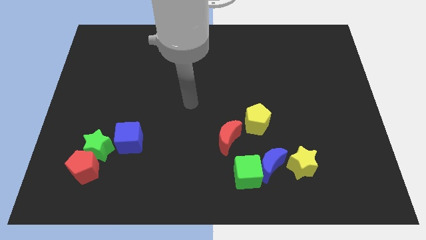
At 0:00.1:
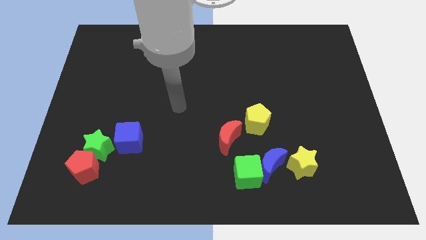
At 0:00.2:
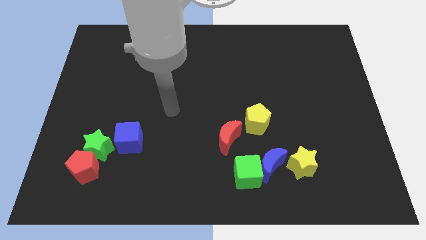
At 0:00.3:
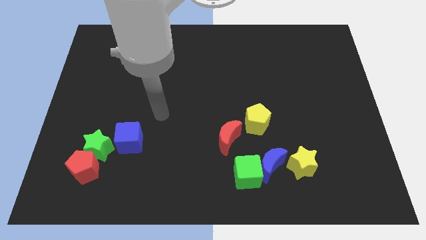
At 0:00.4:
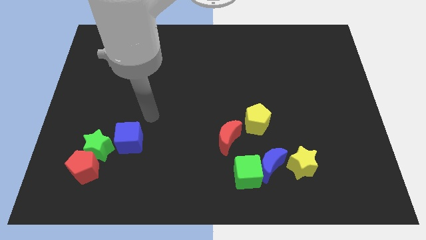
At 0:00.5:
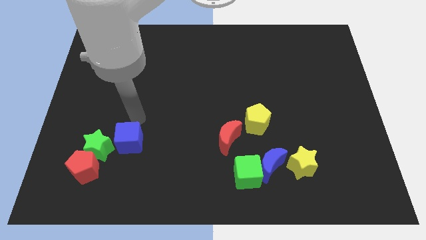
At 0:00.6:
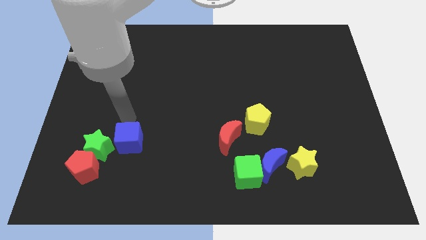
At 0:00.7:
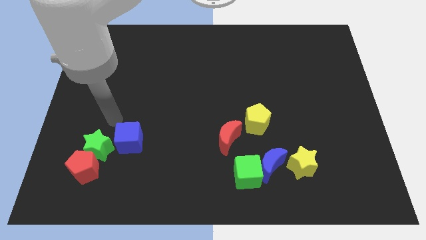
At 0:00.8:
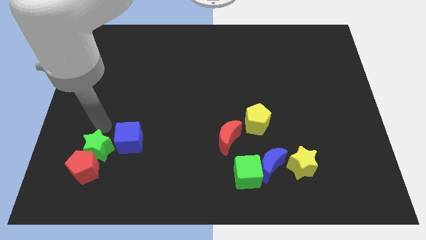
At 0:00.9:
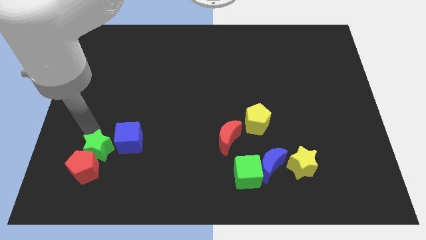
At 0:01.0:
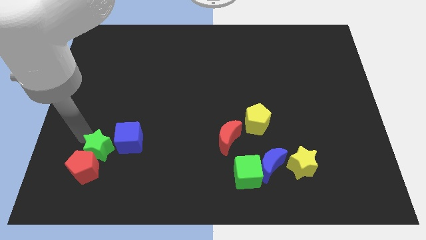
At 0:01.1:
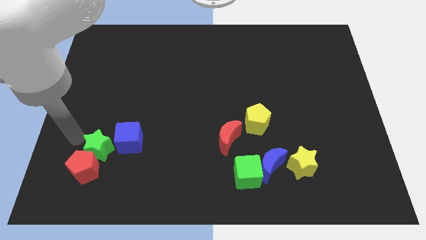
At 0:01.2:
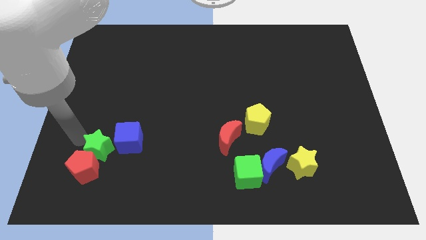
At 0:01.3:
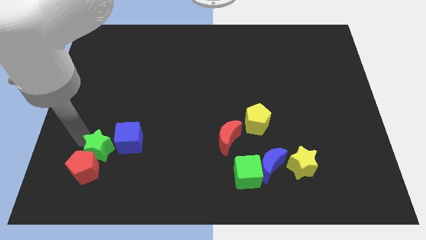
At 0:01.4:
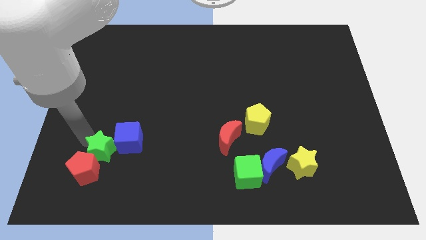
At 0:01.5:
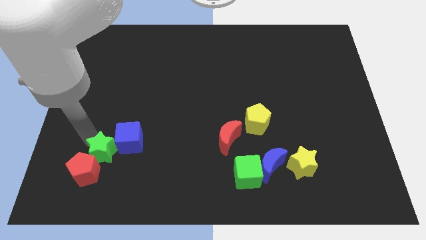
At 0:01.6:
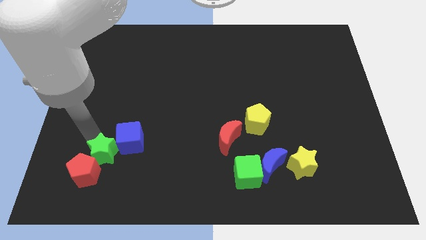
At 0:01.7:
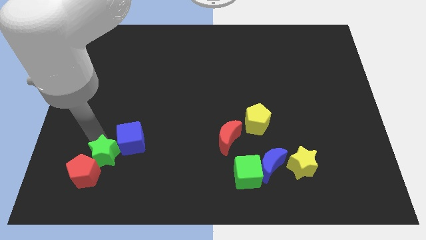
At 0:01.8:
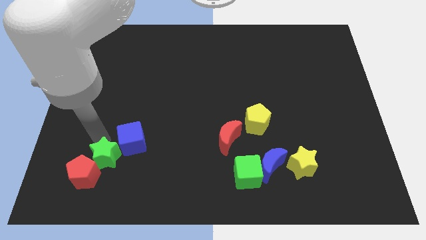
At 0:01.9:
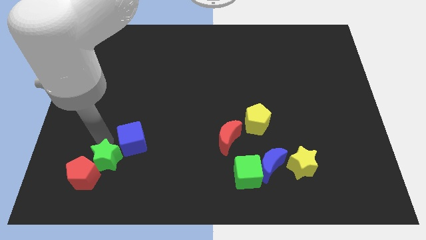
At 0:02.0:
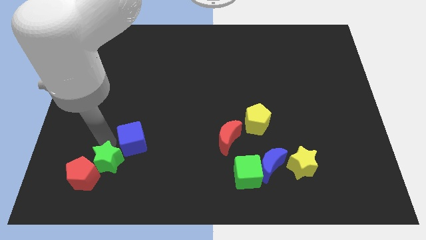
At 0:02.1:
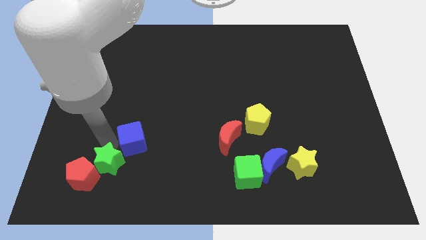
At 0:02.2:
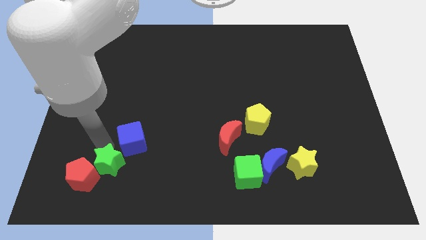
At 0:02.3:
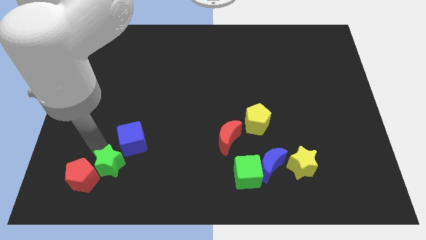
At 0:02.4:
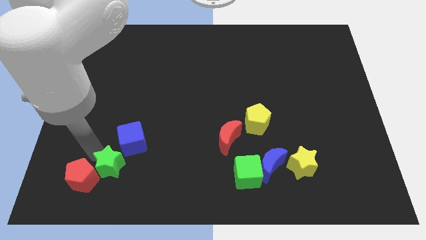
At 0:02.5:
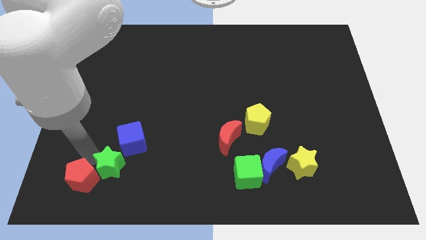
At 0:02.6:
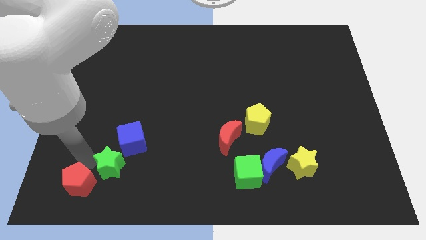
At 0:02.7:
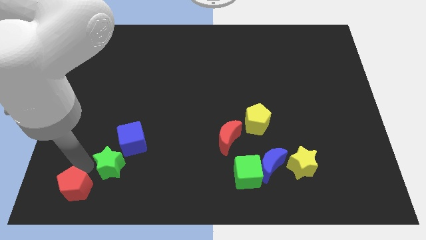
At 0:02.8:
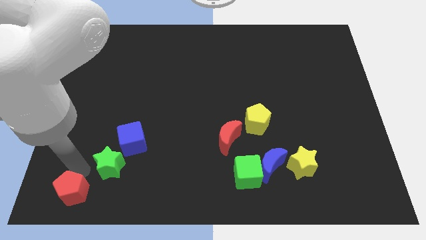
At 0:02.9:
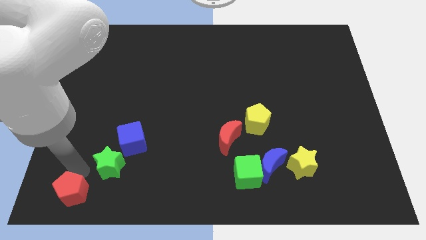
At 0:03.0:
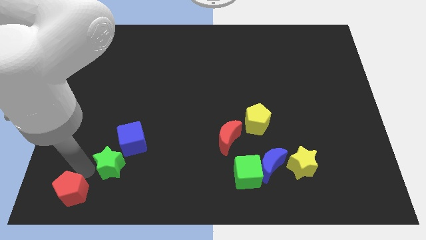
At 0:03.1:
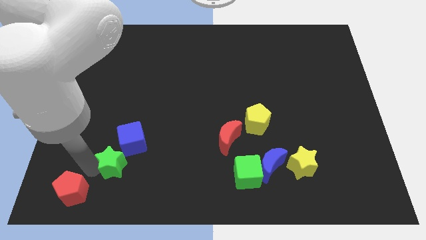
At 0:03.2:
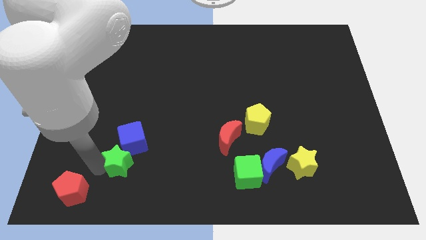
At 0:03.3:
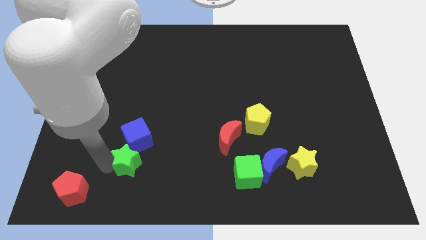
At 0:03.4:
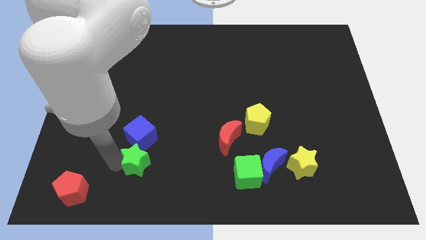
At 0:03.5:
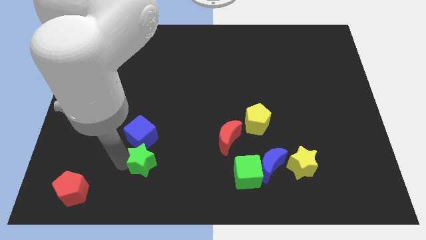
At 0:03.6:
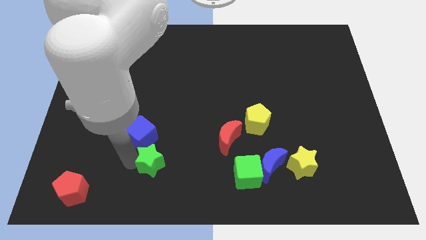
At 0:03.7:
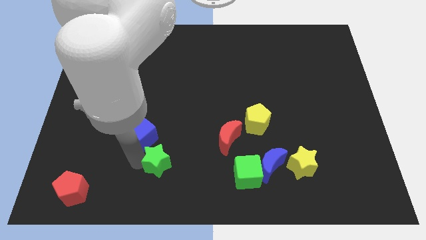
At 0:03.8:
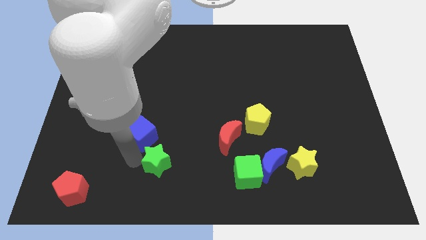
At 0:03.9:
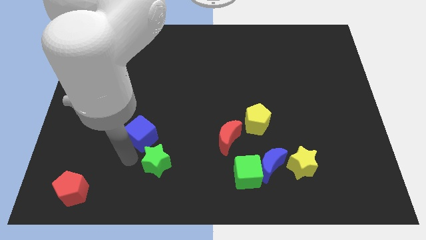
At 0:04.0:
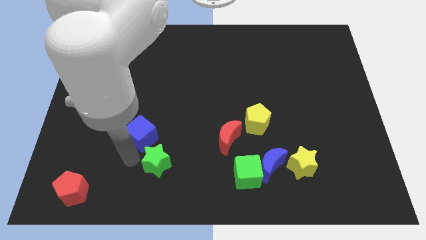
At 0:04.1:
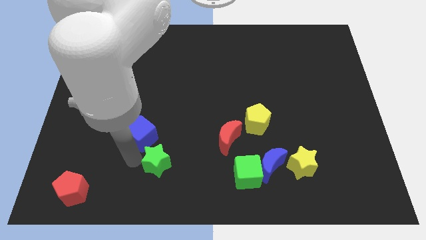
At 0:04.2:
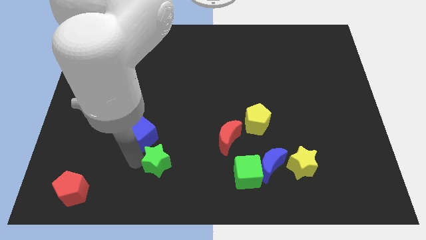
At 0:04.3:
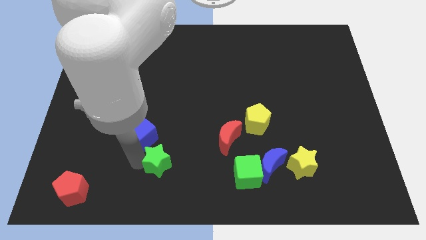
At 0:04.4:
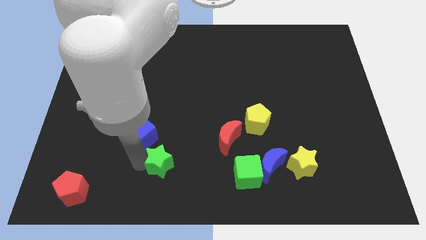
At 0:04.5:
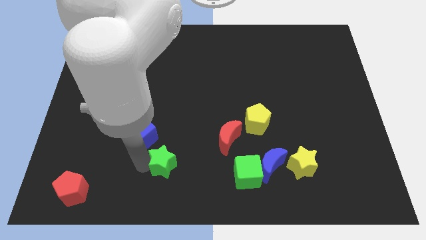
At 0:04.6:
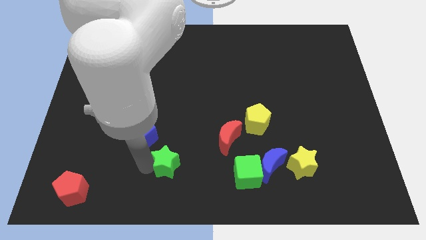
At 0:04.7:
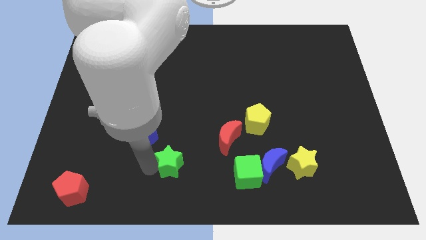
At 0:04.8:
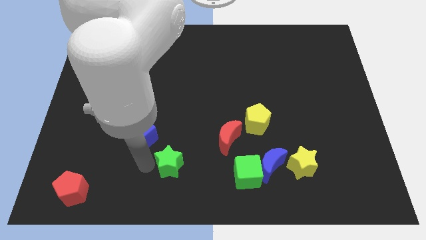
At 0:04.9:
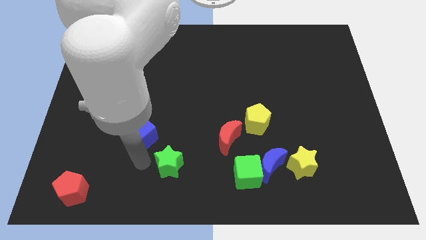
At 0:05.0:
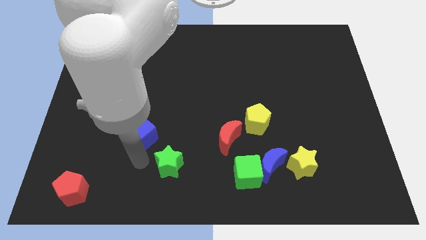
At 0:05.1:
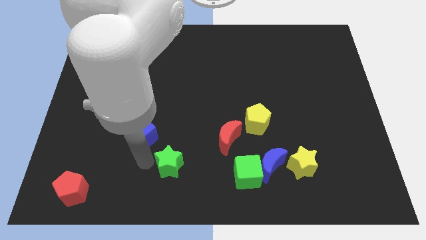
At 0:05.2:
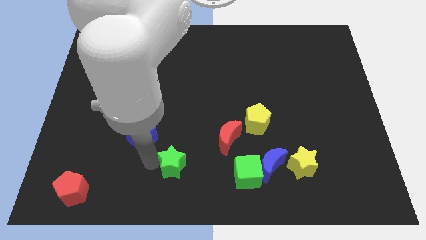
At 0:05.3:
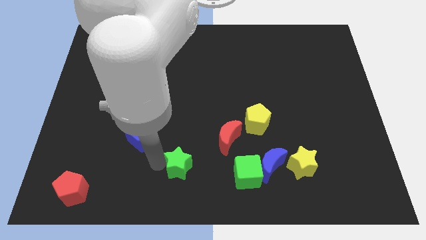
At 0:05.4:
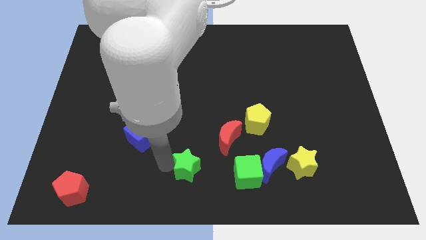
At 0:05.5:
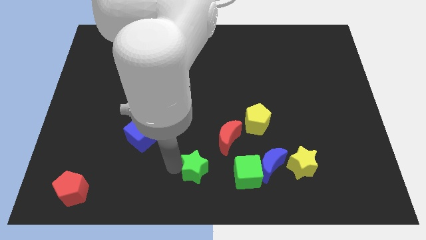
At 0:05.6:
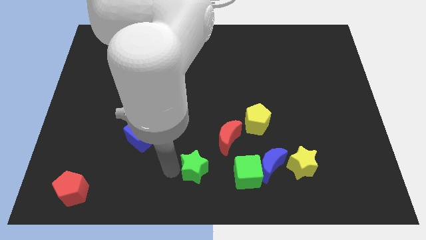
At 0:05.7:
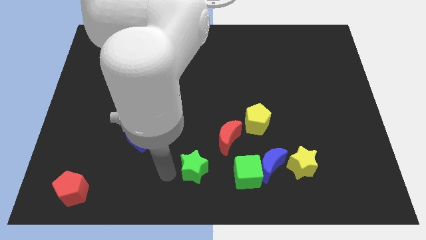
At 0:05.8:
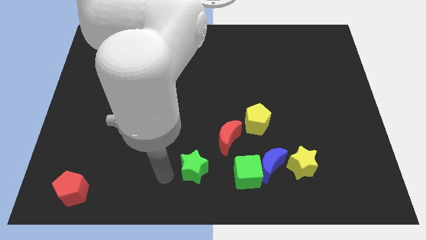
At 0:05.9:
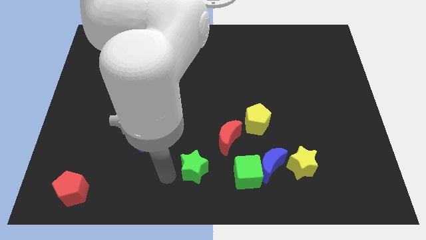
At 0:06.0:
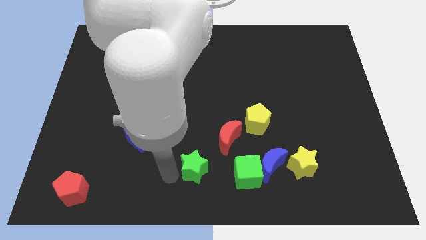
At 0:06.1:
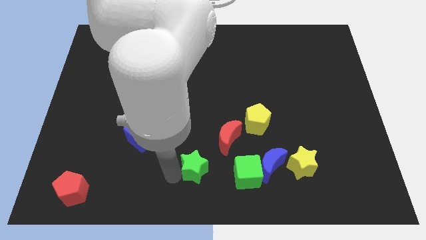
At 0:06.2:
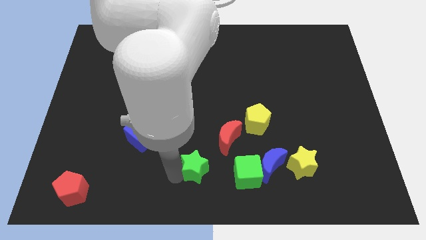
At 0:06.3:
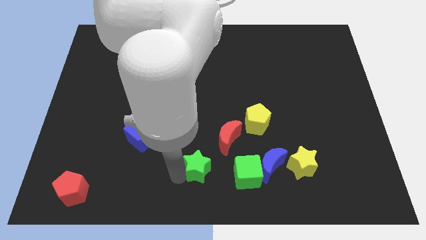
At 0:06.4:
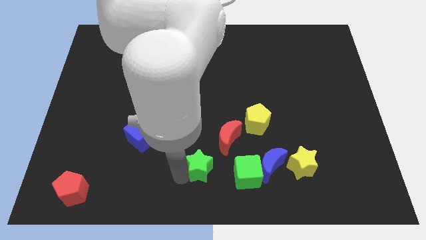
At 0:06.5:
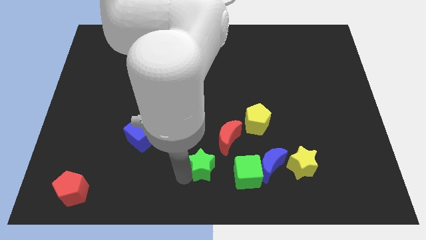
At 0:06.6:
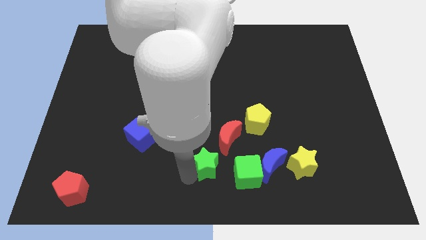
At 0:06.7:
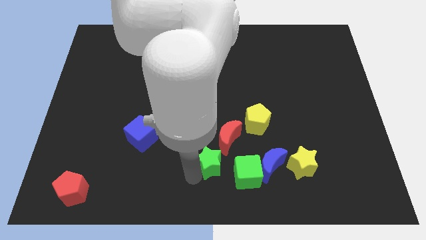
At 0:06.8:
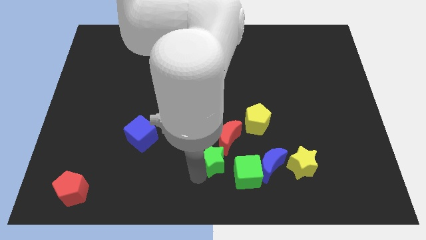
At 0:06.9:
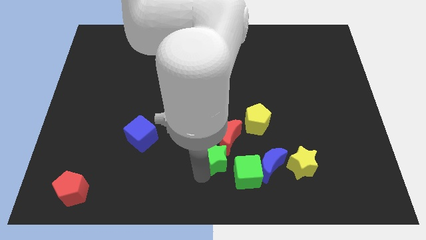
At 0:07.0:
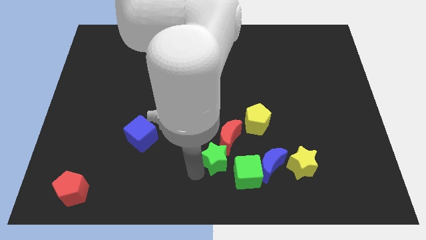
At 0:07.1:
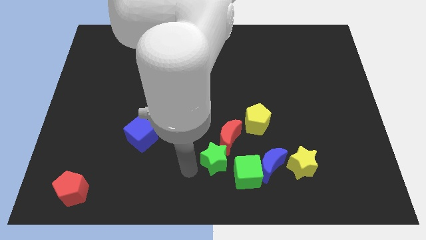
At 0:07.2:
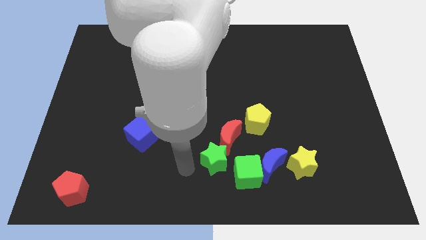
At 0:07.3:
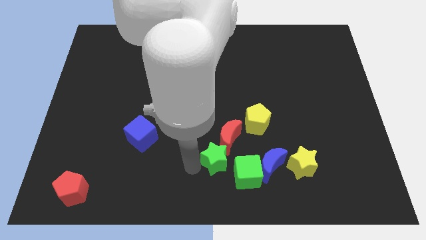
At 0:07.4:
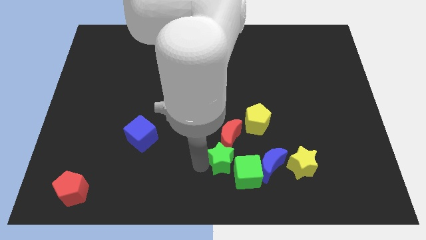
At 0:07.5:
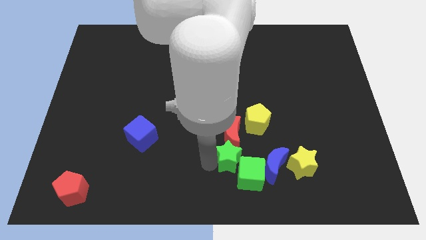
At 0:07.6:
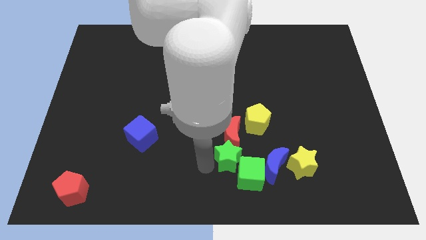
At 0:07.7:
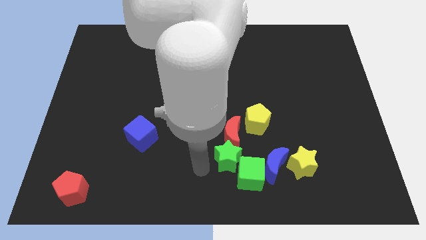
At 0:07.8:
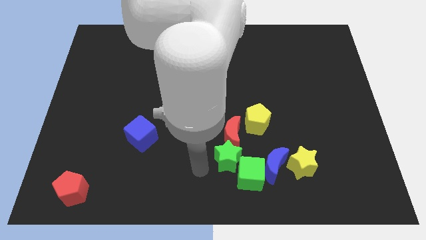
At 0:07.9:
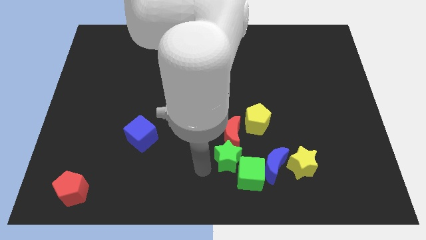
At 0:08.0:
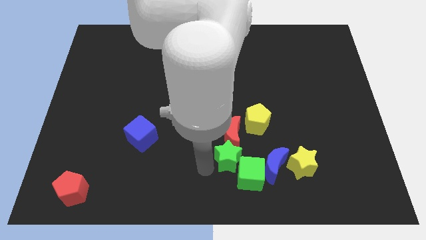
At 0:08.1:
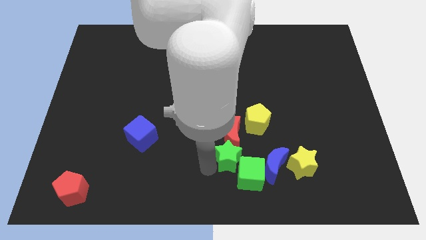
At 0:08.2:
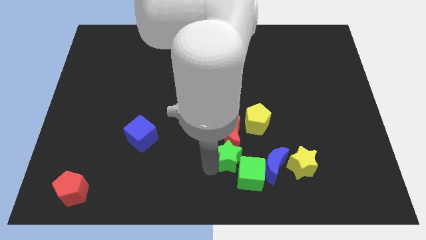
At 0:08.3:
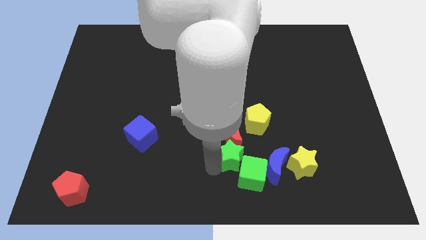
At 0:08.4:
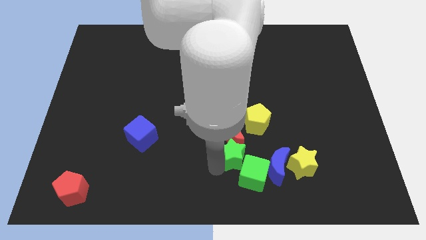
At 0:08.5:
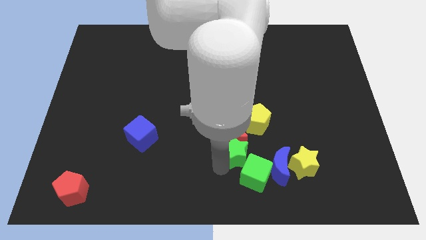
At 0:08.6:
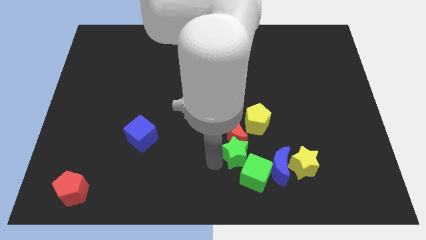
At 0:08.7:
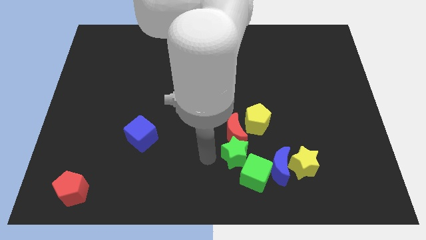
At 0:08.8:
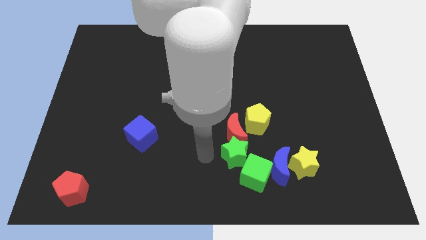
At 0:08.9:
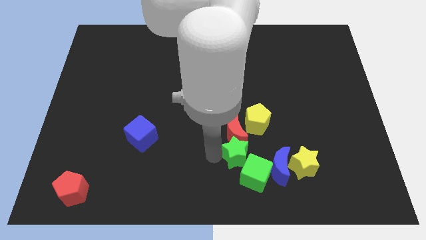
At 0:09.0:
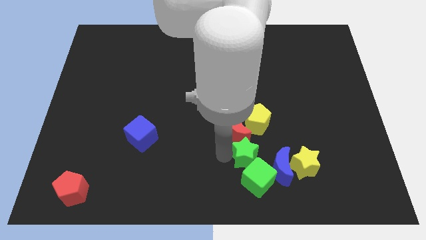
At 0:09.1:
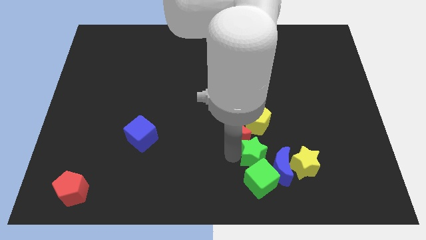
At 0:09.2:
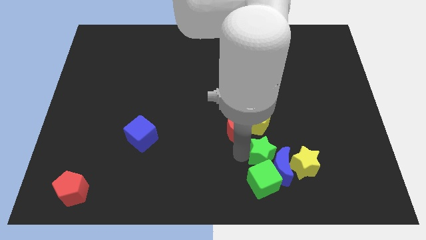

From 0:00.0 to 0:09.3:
push the green star diagonally up and to the right of the green cube
